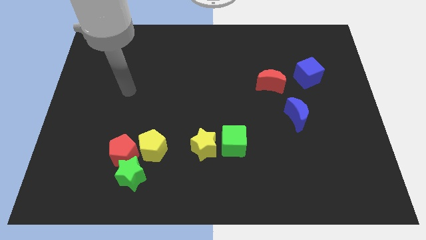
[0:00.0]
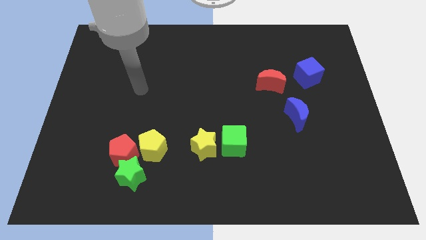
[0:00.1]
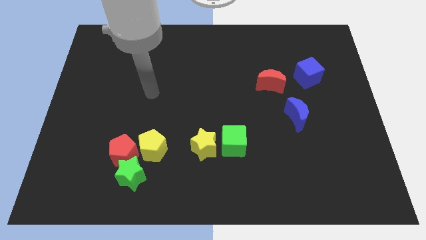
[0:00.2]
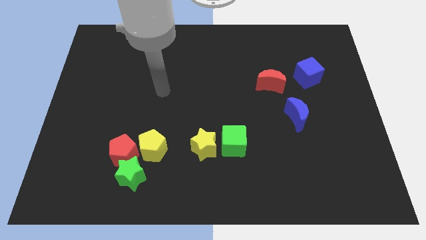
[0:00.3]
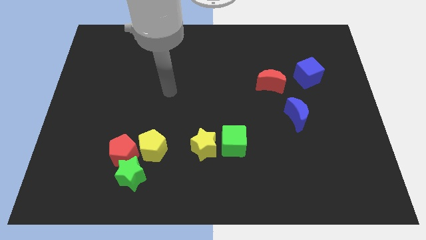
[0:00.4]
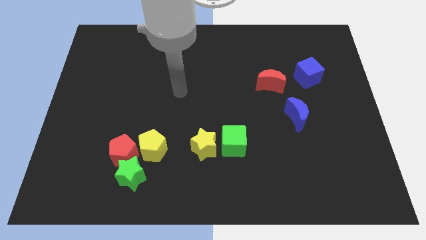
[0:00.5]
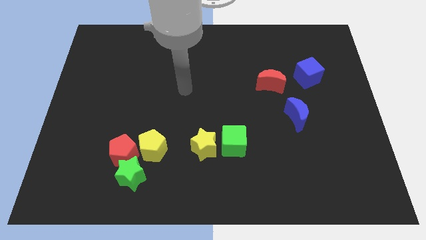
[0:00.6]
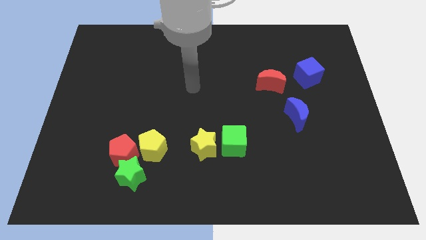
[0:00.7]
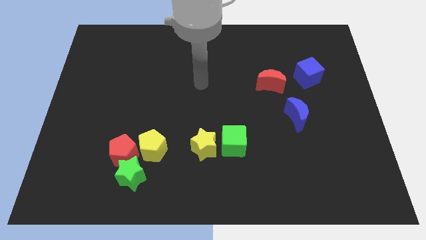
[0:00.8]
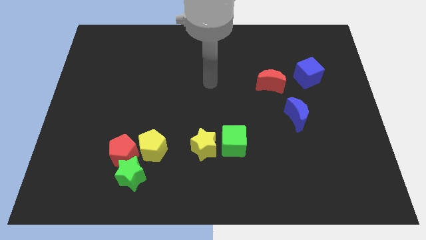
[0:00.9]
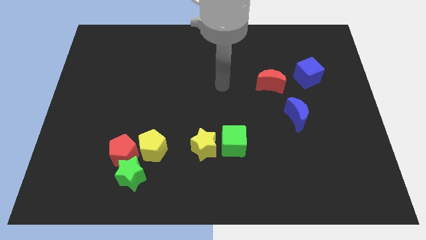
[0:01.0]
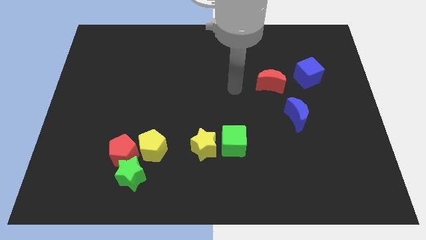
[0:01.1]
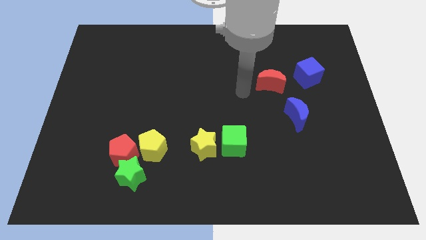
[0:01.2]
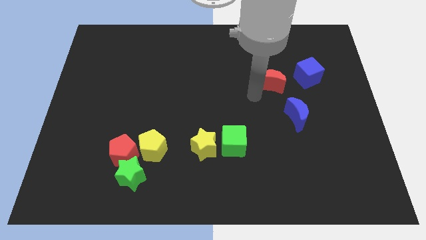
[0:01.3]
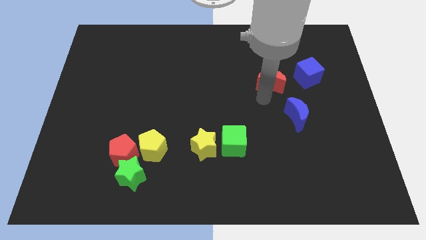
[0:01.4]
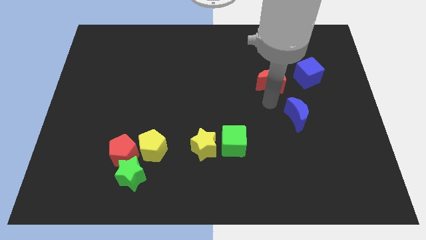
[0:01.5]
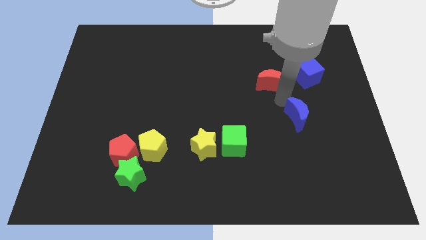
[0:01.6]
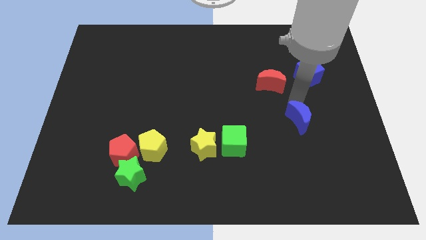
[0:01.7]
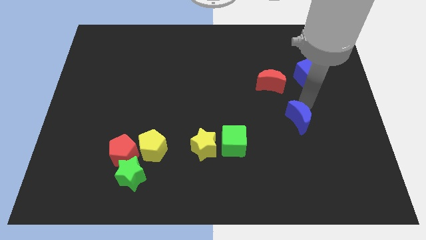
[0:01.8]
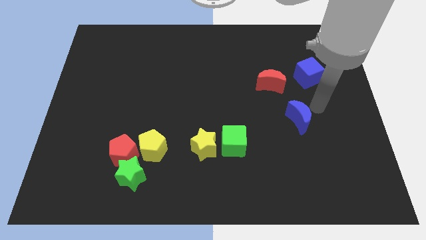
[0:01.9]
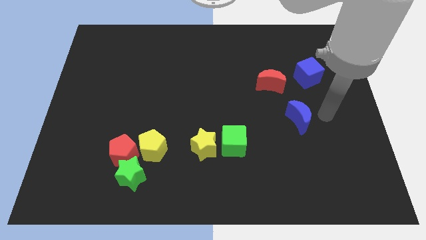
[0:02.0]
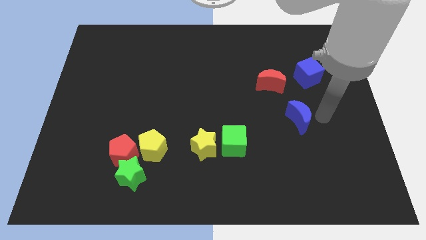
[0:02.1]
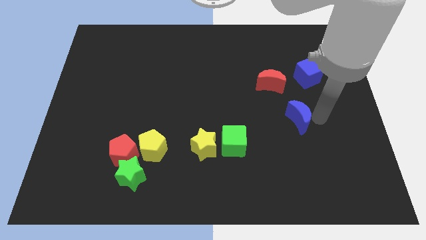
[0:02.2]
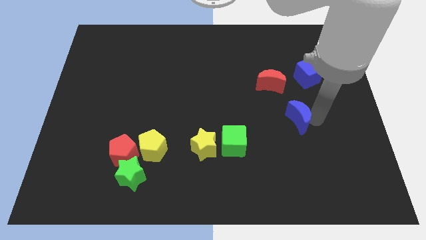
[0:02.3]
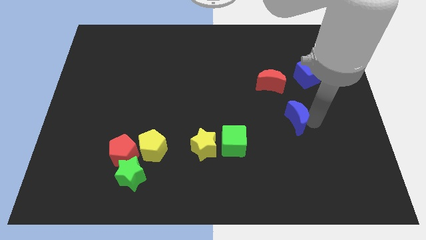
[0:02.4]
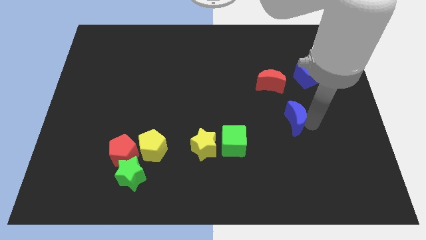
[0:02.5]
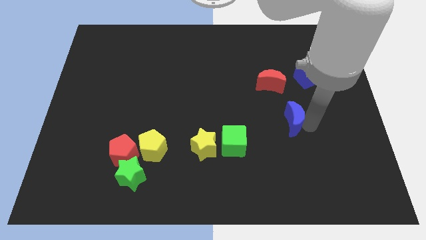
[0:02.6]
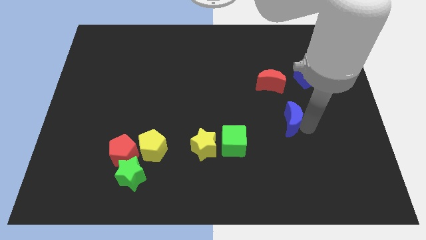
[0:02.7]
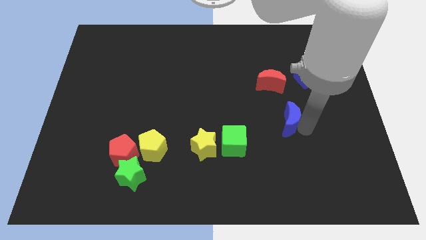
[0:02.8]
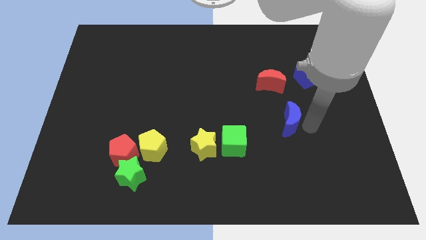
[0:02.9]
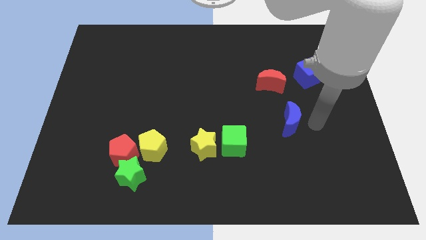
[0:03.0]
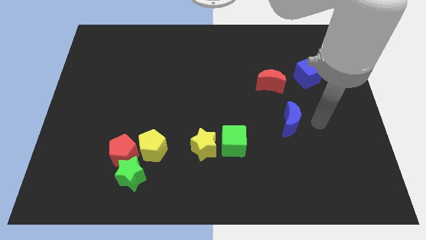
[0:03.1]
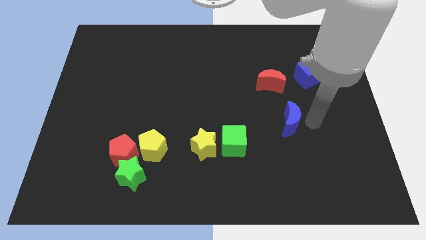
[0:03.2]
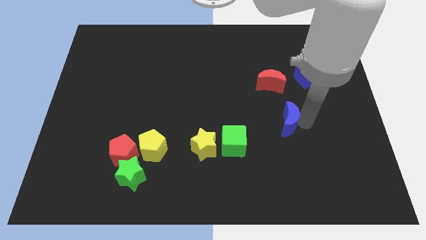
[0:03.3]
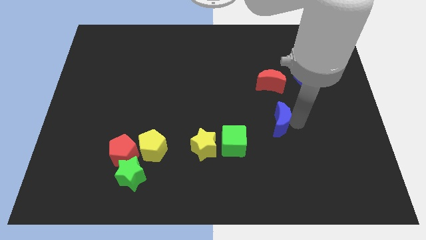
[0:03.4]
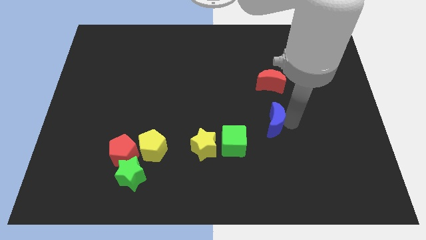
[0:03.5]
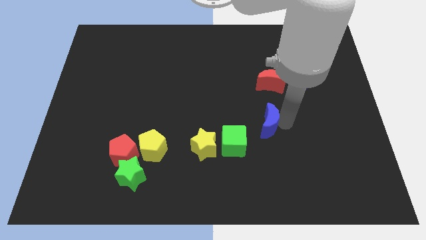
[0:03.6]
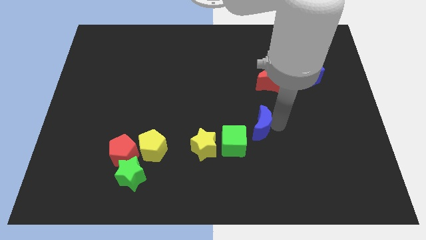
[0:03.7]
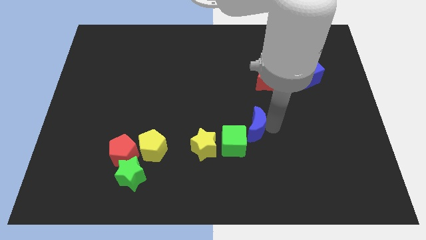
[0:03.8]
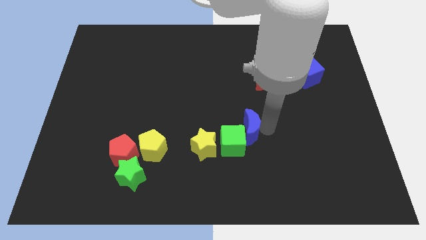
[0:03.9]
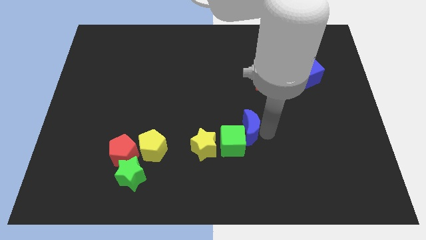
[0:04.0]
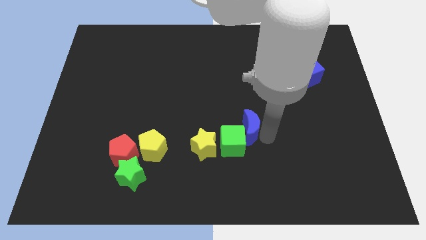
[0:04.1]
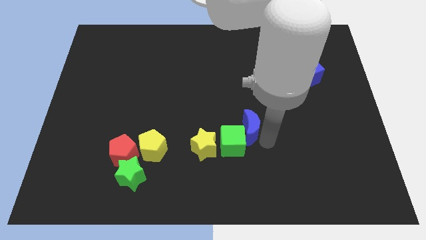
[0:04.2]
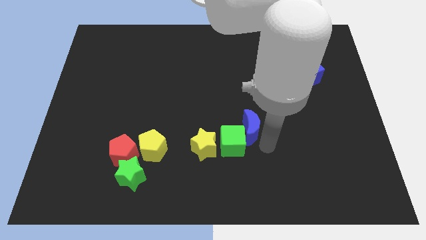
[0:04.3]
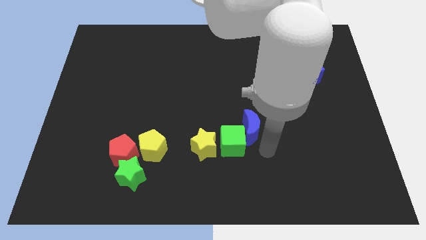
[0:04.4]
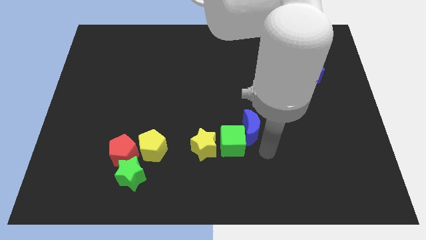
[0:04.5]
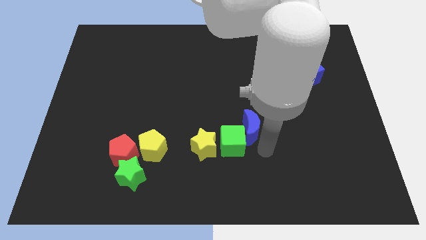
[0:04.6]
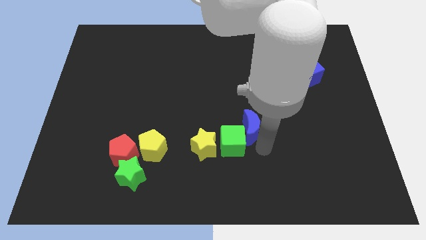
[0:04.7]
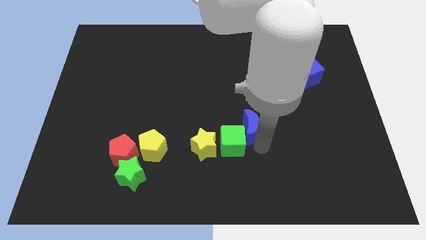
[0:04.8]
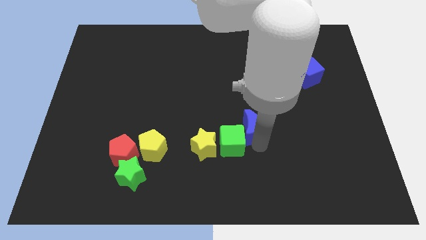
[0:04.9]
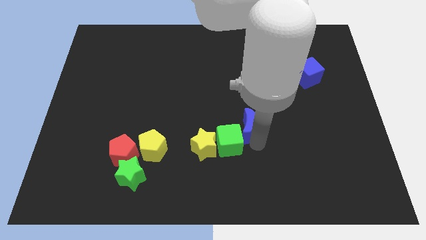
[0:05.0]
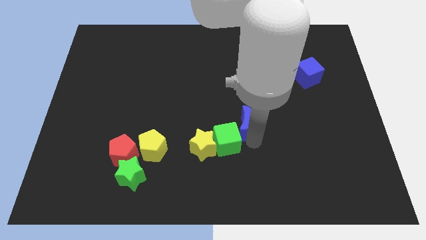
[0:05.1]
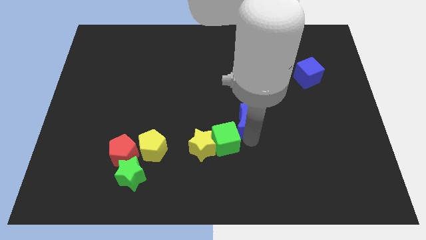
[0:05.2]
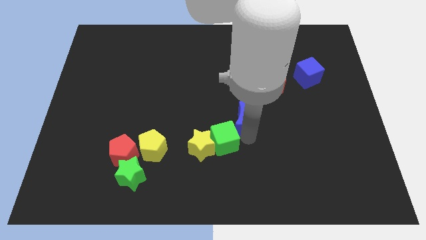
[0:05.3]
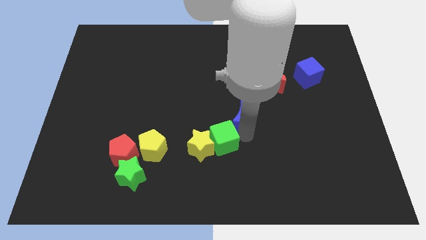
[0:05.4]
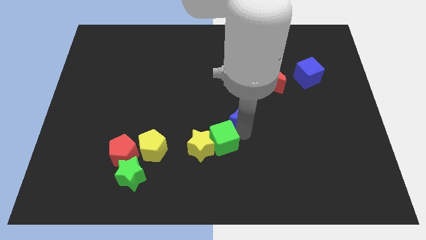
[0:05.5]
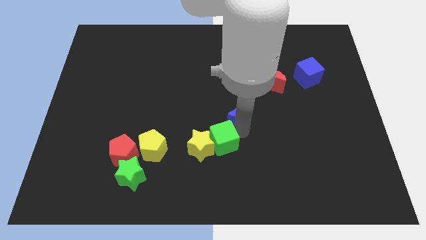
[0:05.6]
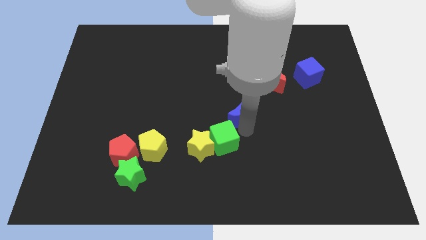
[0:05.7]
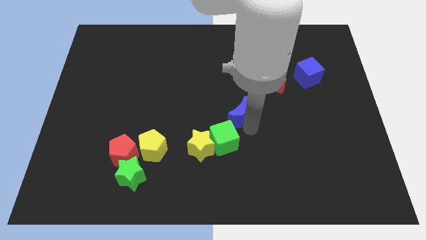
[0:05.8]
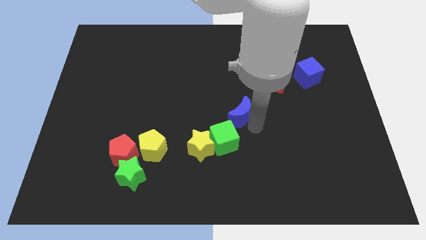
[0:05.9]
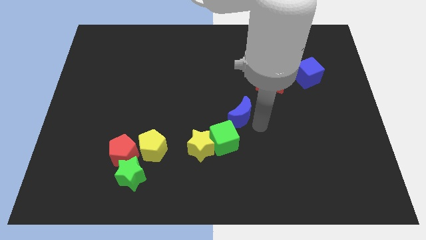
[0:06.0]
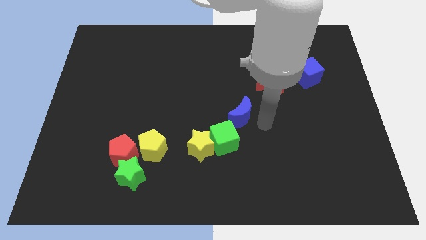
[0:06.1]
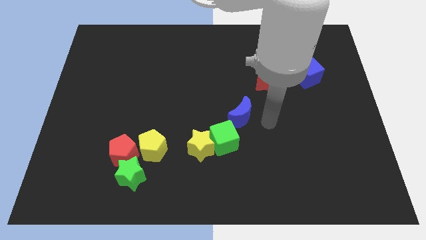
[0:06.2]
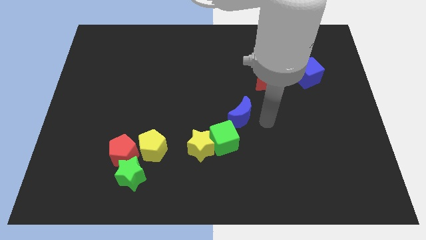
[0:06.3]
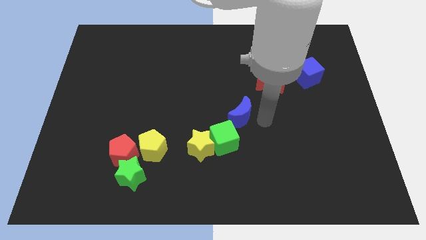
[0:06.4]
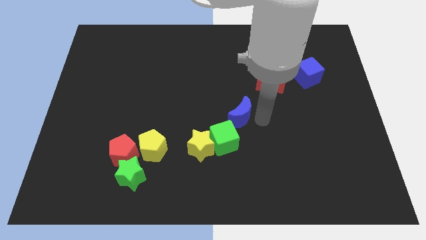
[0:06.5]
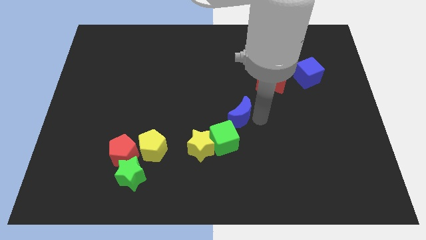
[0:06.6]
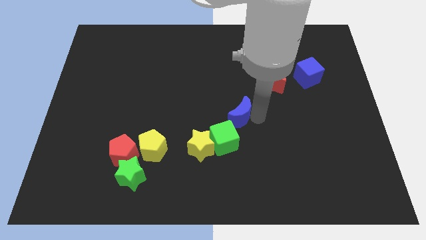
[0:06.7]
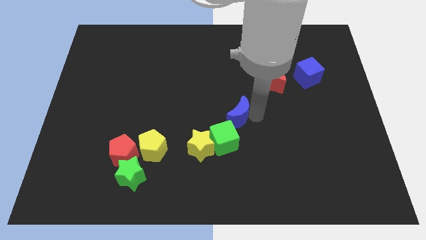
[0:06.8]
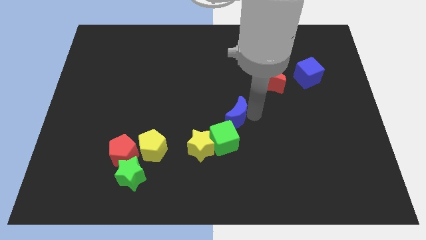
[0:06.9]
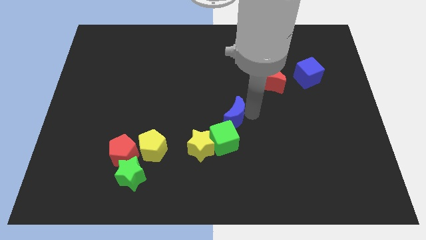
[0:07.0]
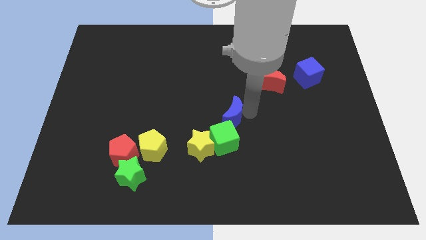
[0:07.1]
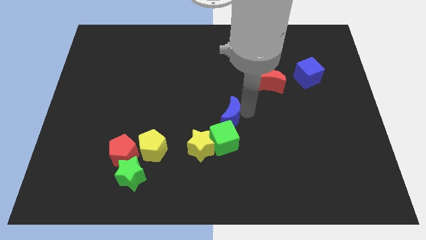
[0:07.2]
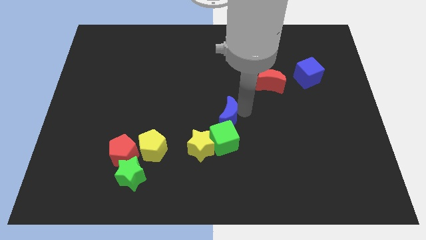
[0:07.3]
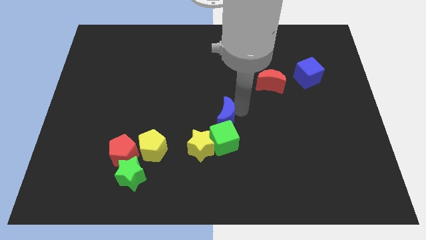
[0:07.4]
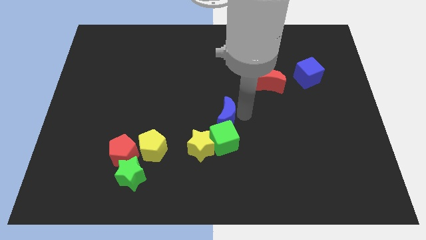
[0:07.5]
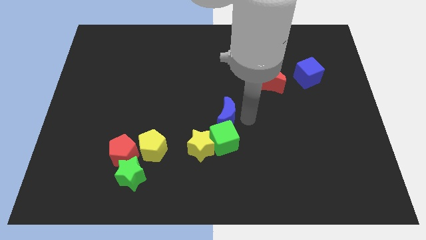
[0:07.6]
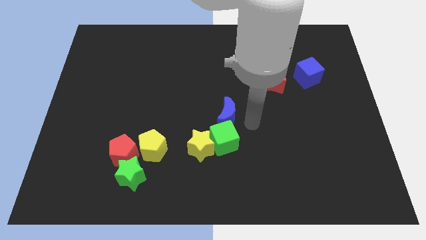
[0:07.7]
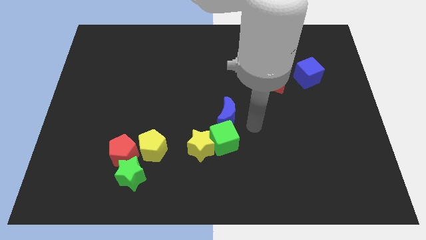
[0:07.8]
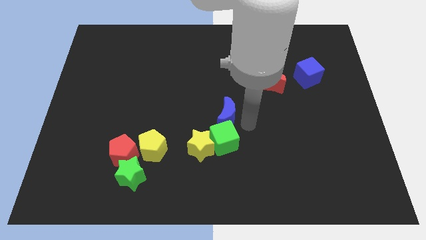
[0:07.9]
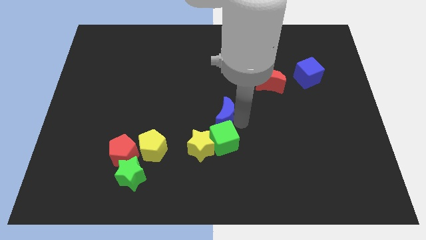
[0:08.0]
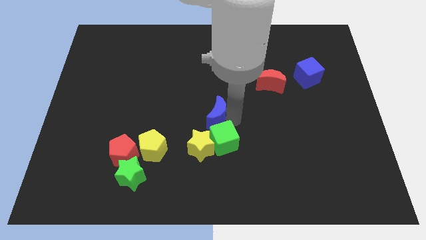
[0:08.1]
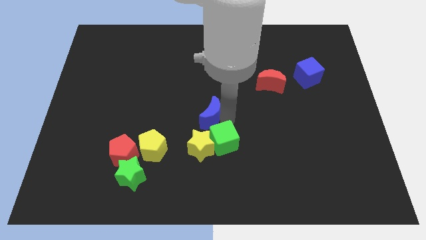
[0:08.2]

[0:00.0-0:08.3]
move the blue moon left
